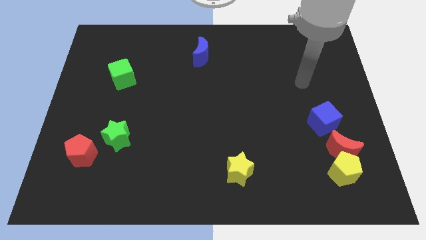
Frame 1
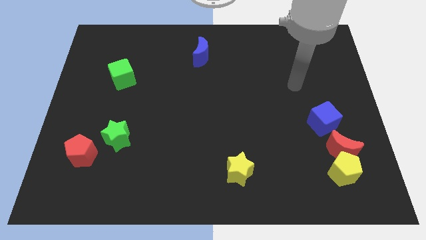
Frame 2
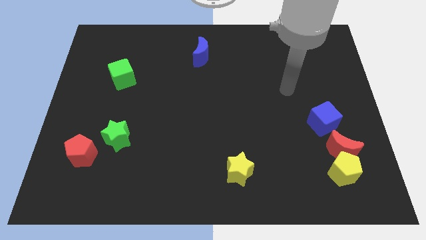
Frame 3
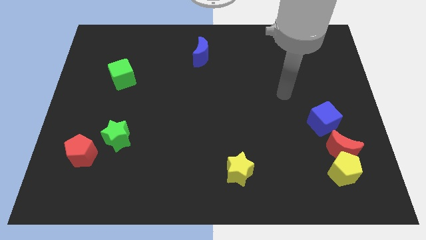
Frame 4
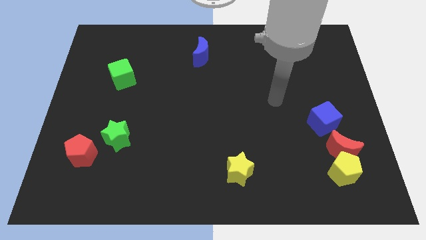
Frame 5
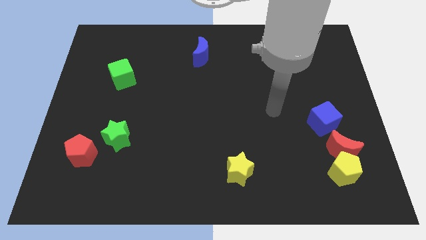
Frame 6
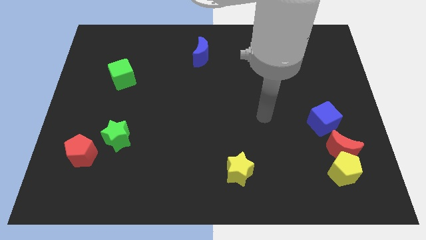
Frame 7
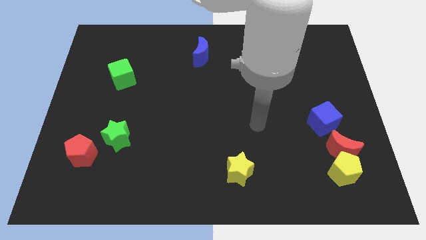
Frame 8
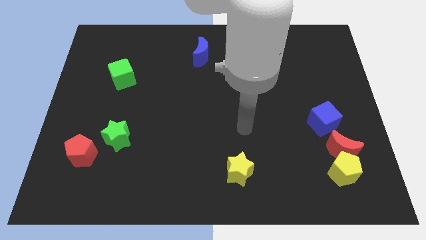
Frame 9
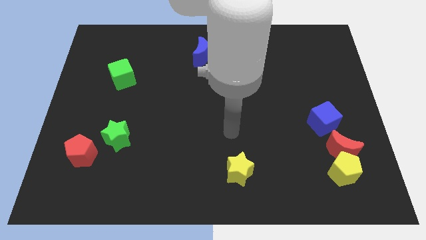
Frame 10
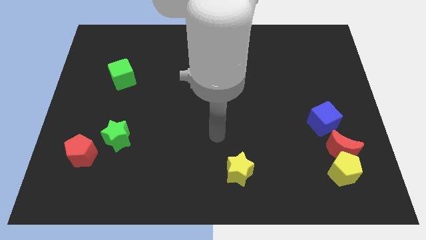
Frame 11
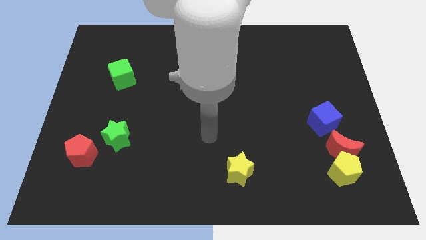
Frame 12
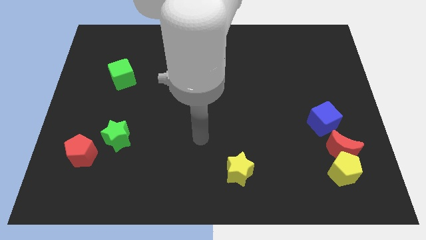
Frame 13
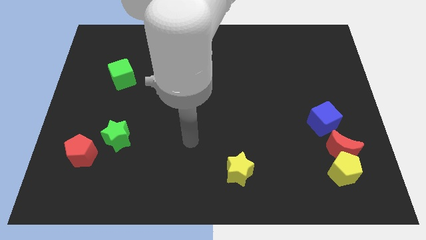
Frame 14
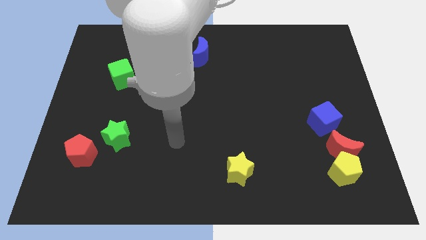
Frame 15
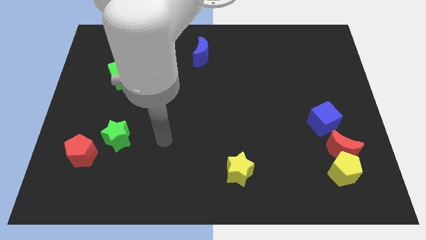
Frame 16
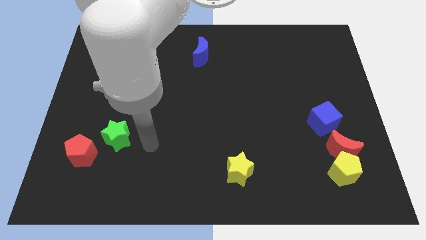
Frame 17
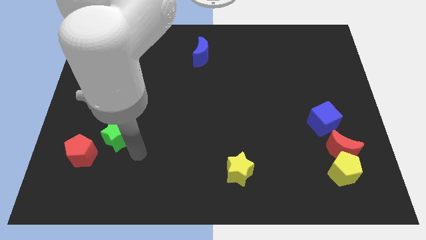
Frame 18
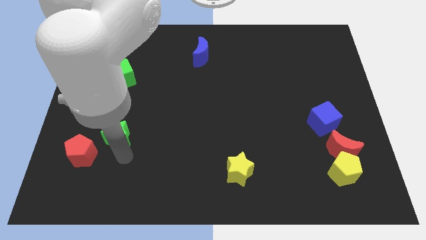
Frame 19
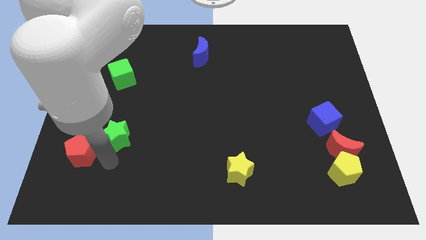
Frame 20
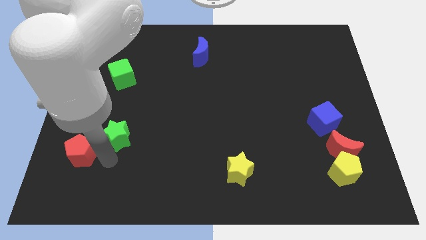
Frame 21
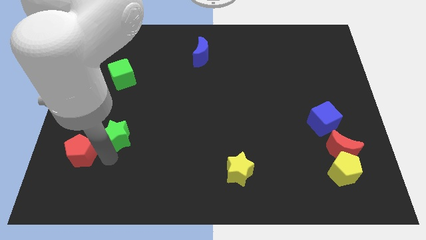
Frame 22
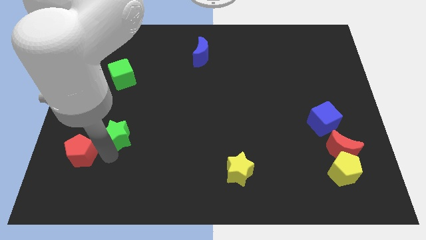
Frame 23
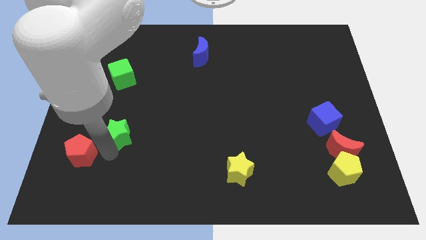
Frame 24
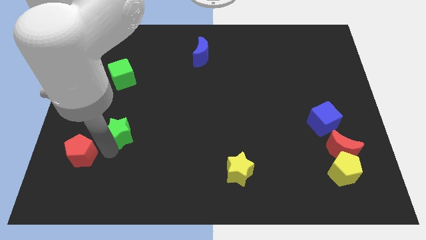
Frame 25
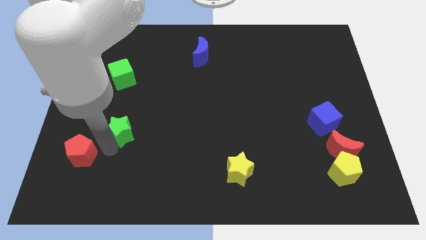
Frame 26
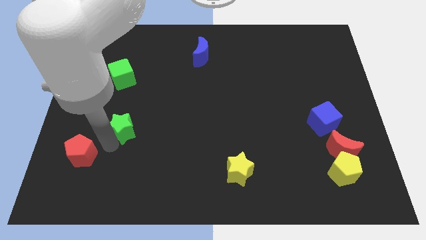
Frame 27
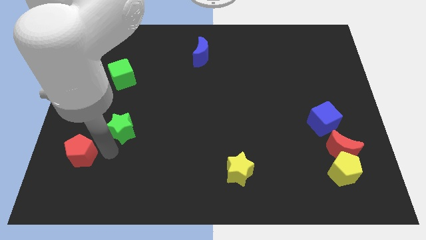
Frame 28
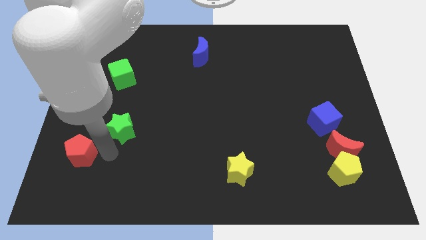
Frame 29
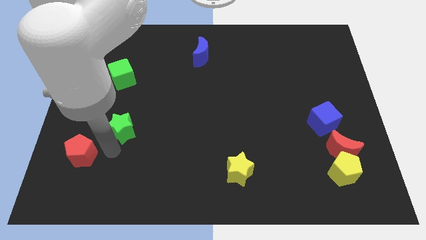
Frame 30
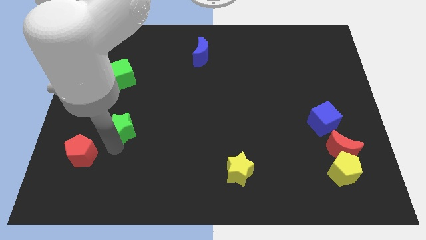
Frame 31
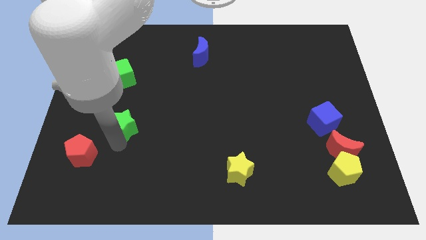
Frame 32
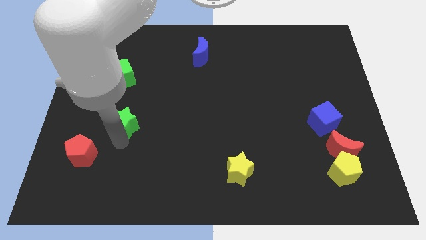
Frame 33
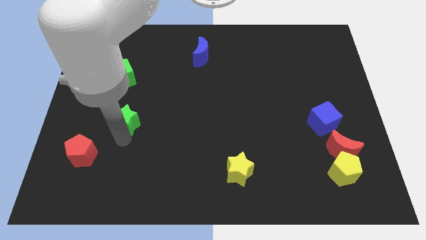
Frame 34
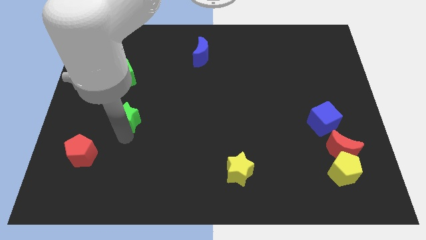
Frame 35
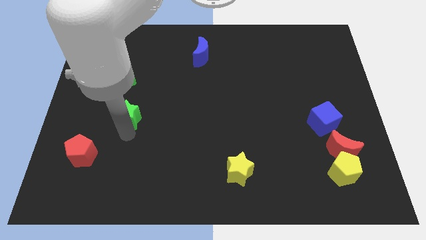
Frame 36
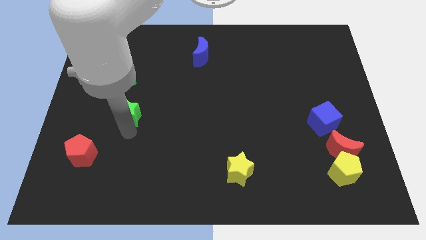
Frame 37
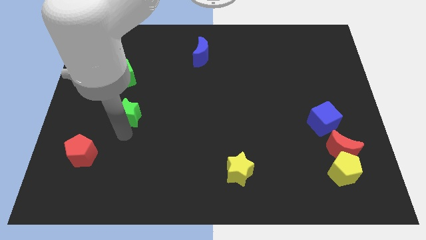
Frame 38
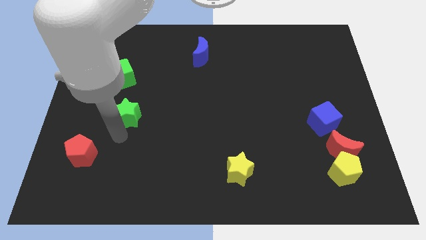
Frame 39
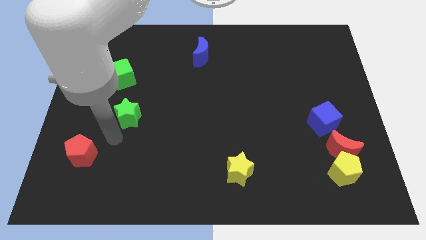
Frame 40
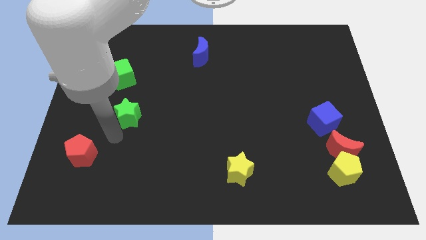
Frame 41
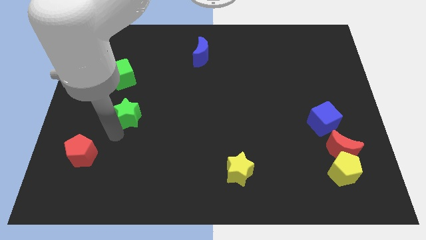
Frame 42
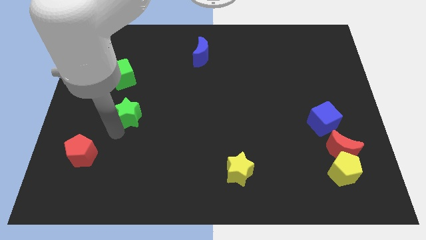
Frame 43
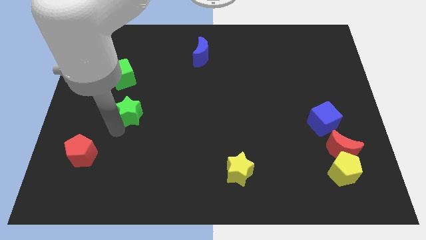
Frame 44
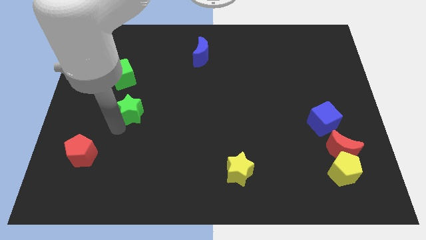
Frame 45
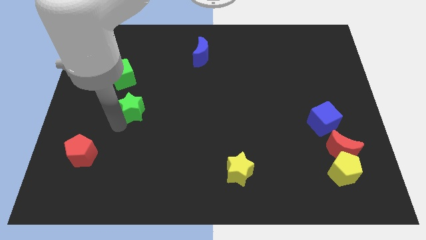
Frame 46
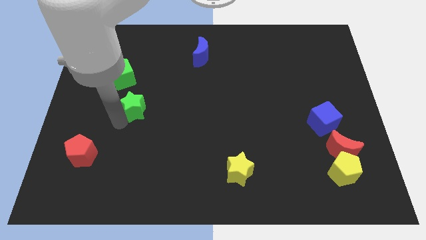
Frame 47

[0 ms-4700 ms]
push the green star to the bottom right of the green cube

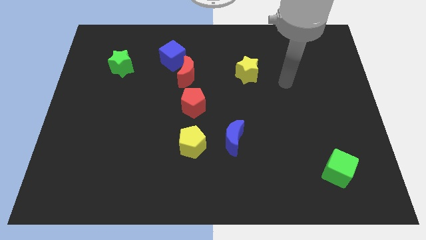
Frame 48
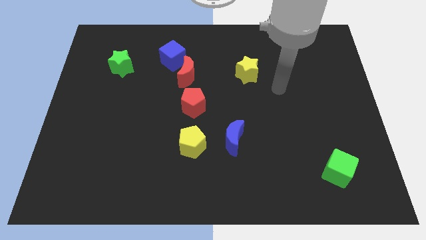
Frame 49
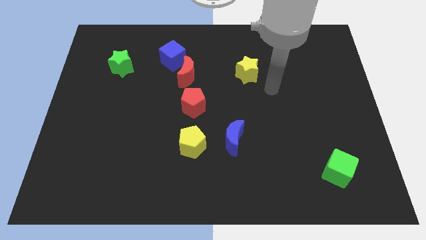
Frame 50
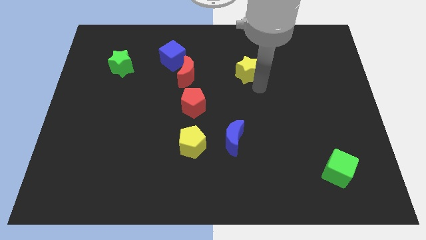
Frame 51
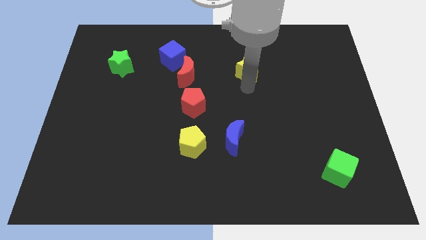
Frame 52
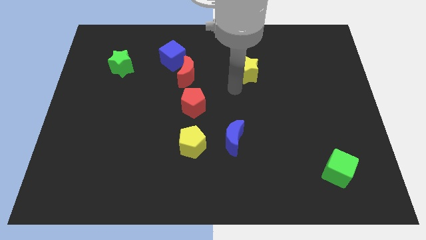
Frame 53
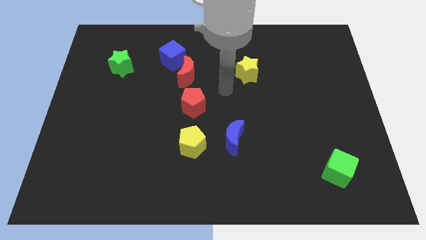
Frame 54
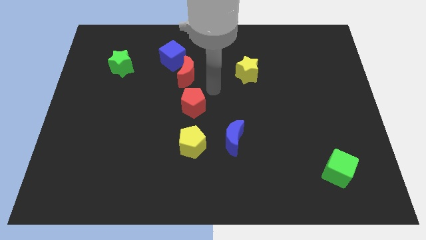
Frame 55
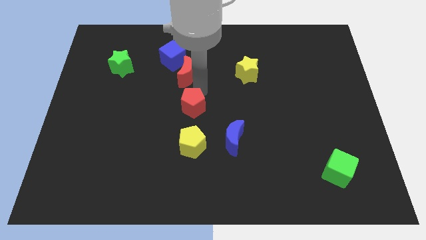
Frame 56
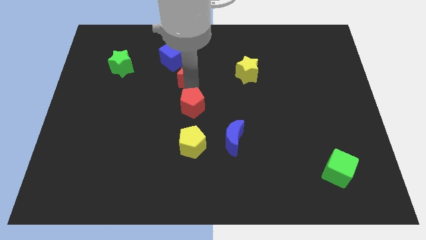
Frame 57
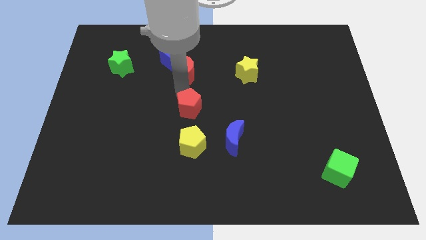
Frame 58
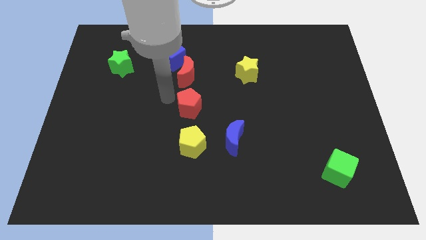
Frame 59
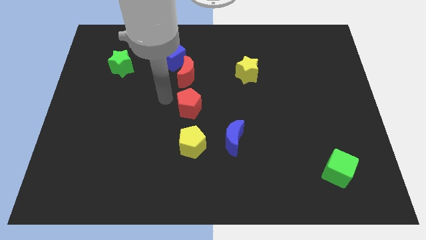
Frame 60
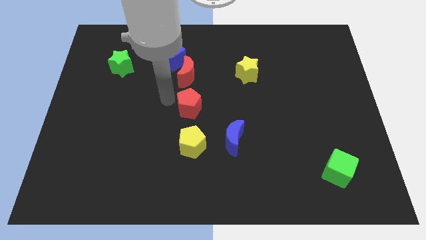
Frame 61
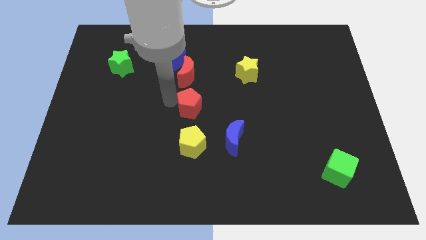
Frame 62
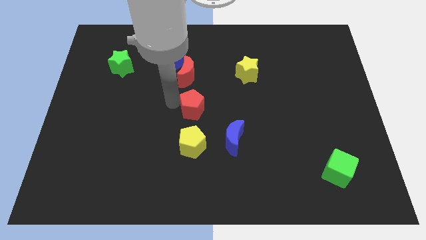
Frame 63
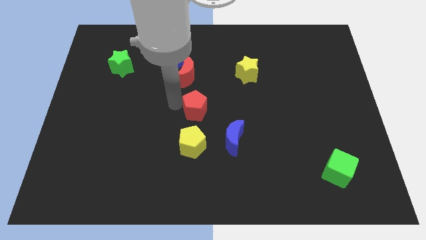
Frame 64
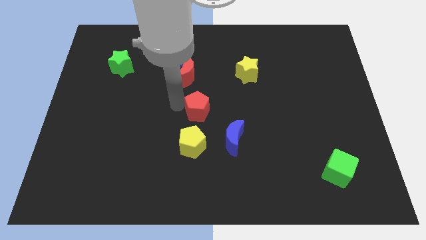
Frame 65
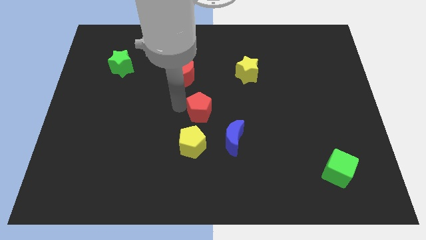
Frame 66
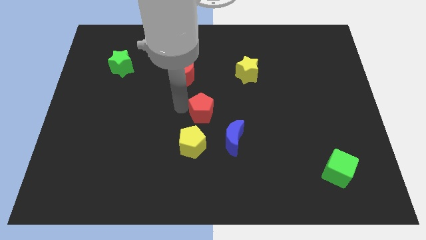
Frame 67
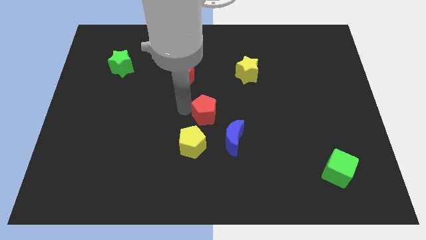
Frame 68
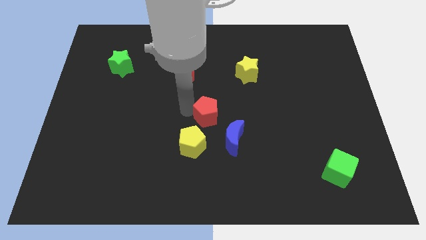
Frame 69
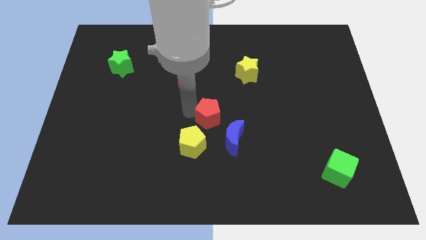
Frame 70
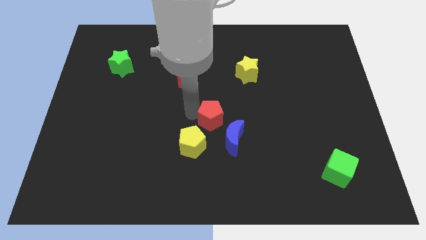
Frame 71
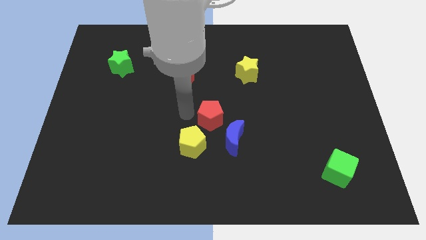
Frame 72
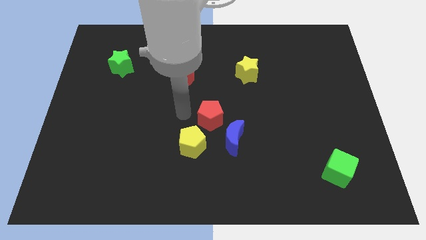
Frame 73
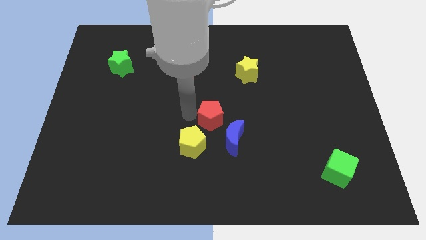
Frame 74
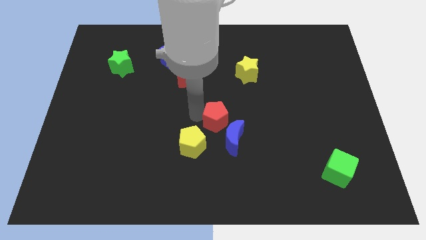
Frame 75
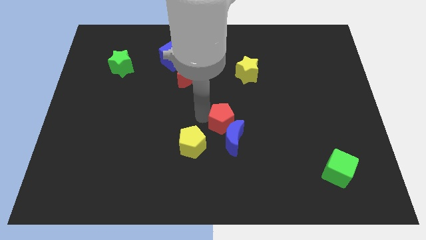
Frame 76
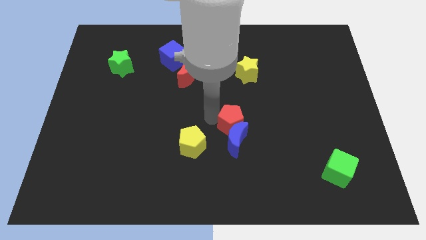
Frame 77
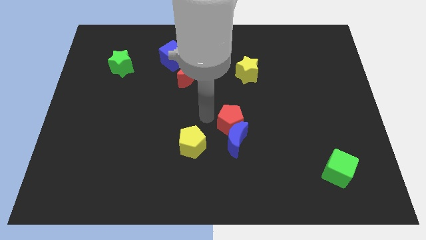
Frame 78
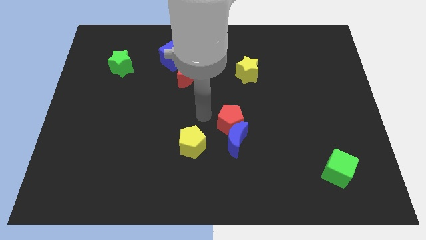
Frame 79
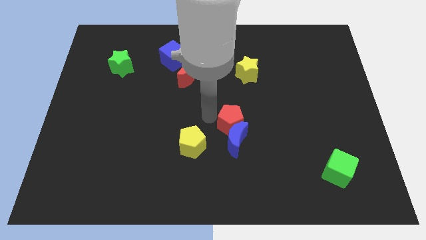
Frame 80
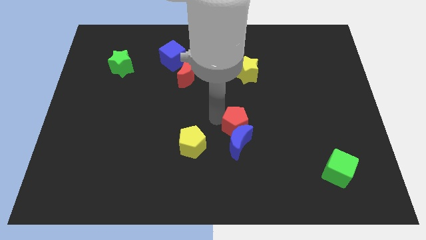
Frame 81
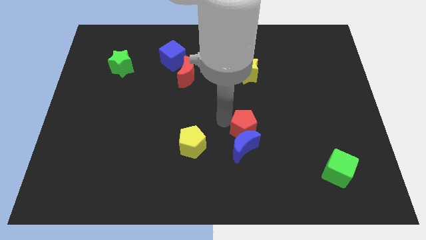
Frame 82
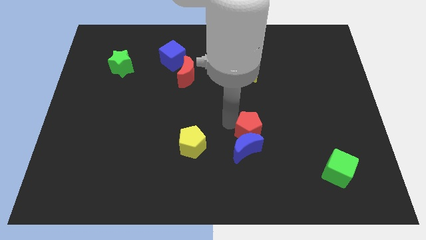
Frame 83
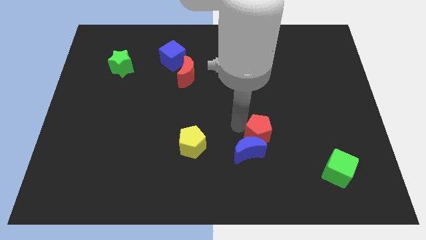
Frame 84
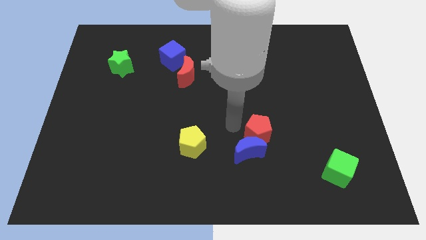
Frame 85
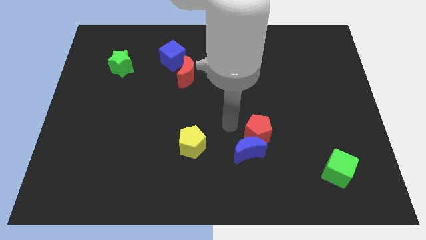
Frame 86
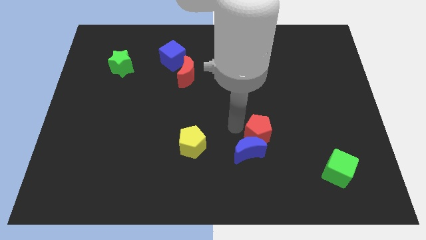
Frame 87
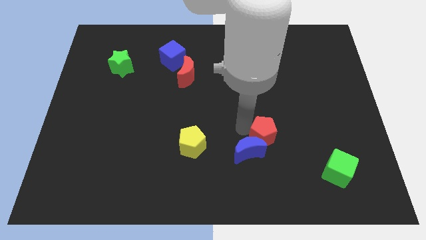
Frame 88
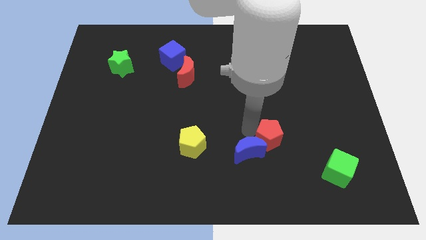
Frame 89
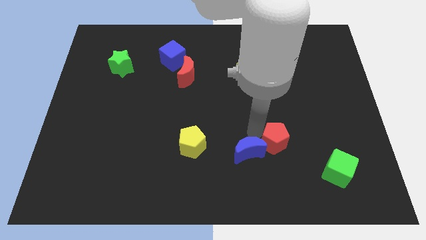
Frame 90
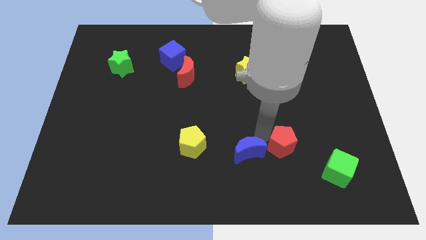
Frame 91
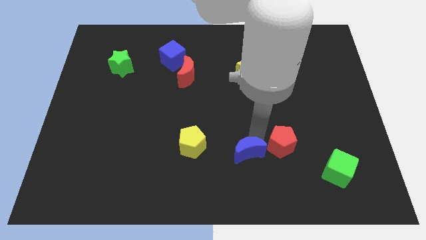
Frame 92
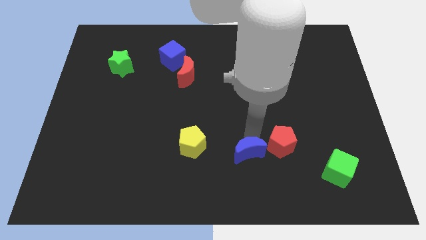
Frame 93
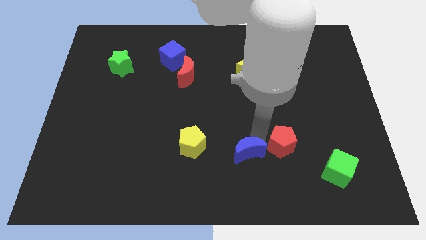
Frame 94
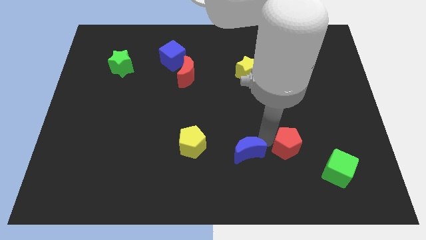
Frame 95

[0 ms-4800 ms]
slide the red pentagon to the top left side of the green cube
